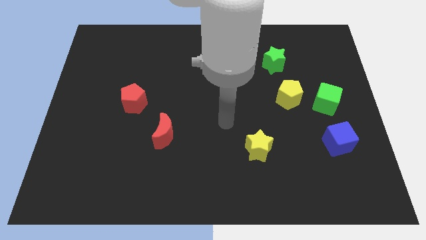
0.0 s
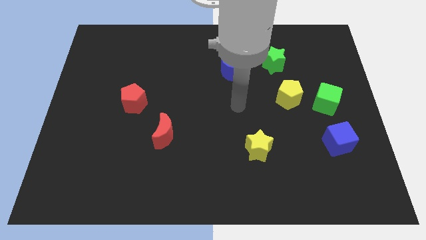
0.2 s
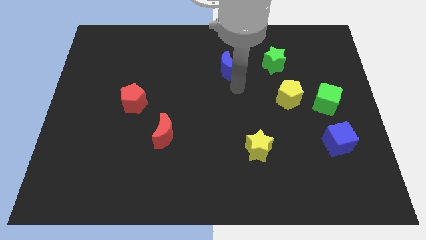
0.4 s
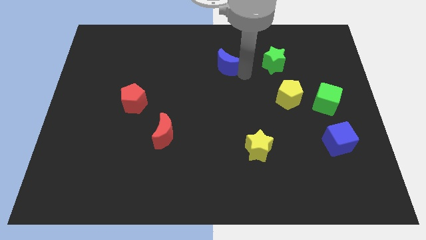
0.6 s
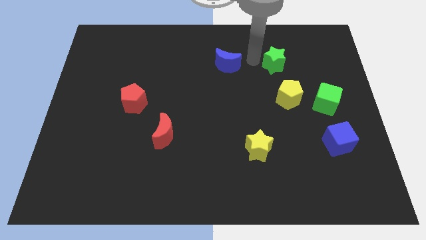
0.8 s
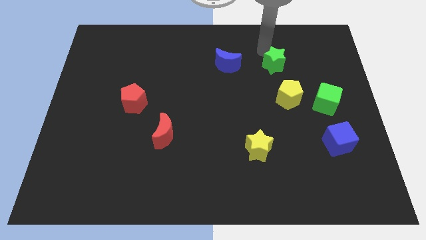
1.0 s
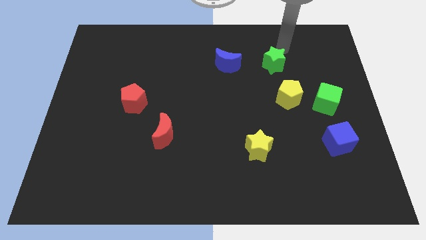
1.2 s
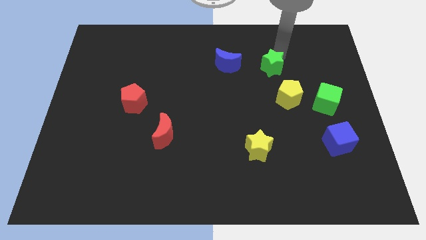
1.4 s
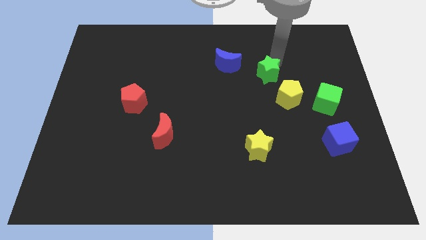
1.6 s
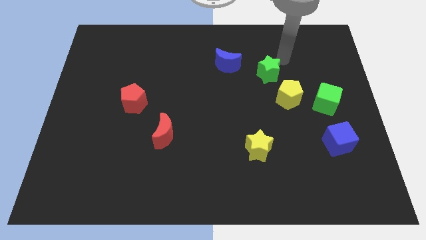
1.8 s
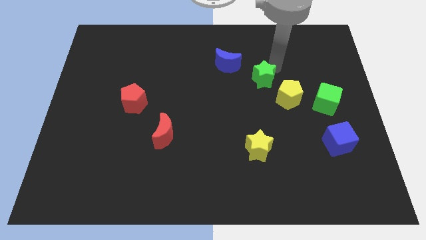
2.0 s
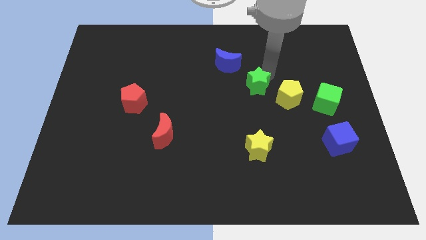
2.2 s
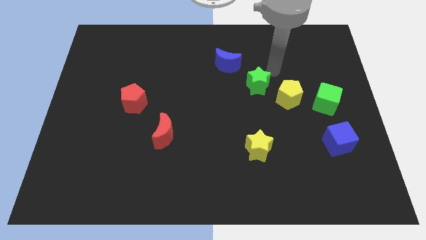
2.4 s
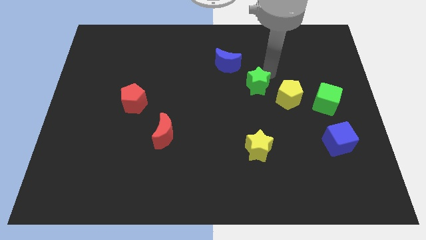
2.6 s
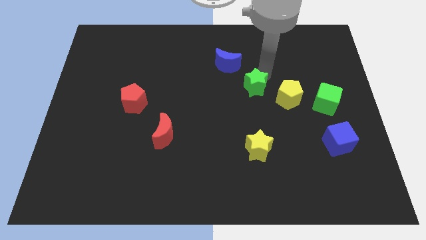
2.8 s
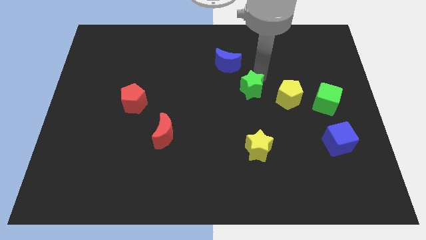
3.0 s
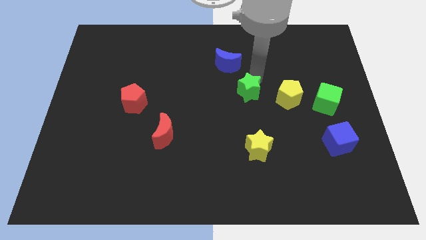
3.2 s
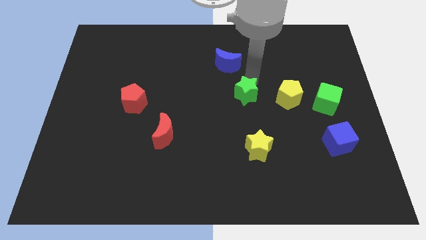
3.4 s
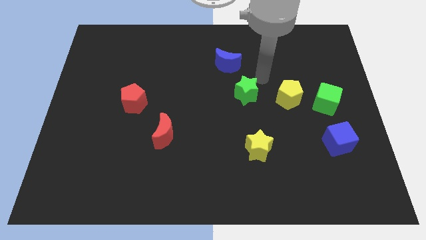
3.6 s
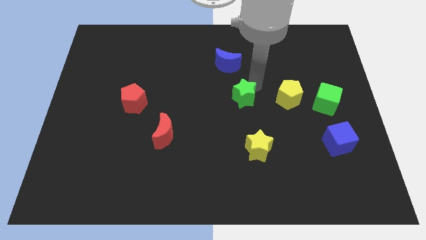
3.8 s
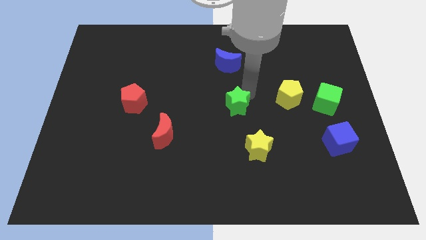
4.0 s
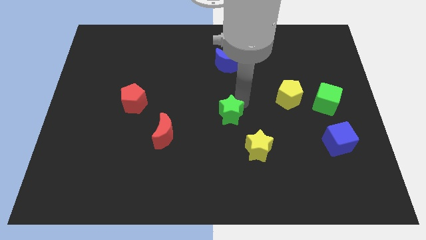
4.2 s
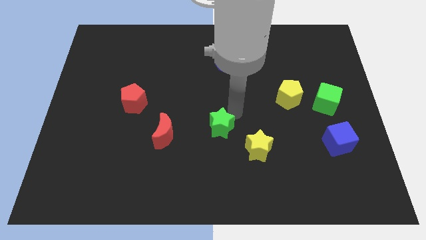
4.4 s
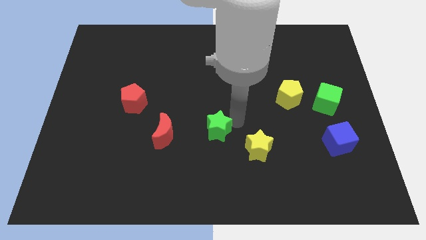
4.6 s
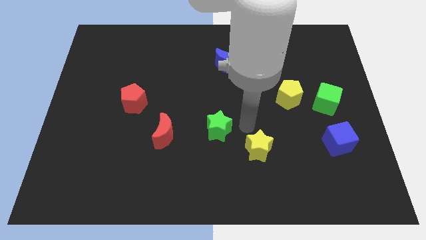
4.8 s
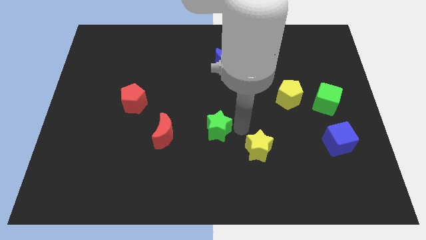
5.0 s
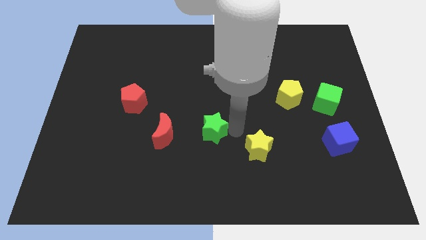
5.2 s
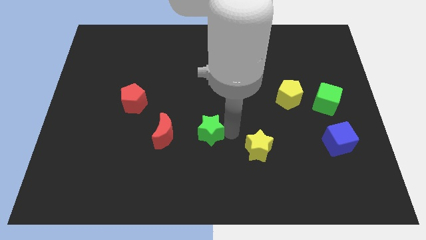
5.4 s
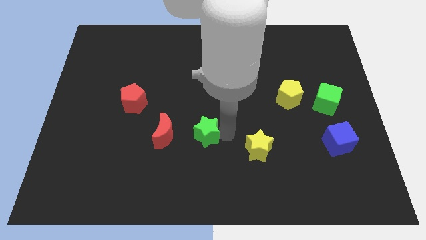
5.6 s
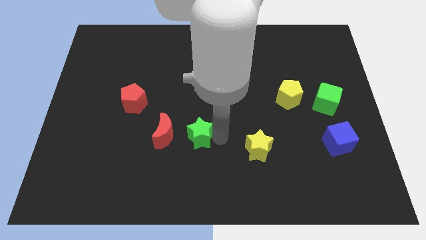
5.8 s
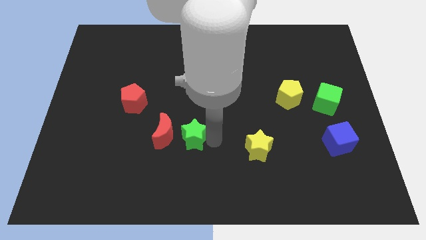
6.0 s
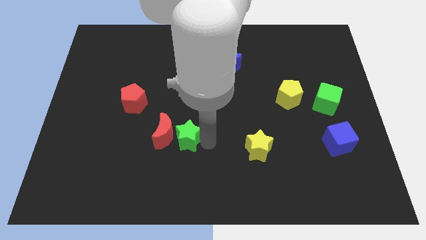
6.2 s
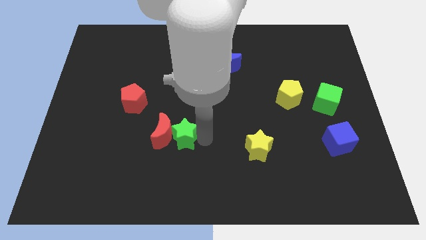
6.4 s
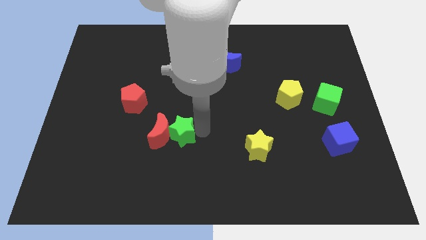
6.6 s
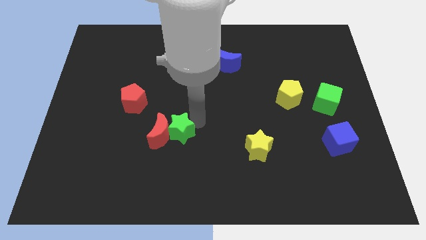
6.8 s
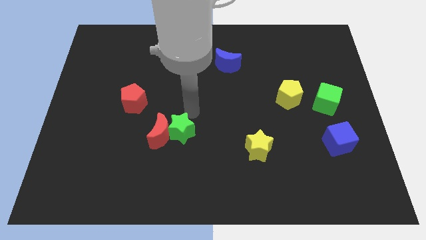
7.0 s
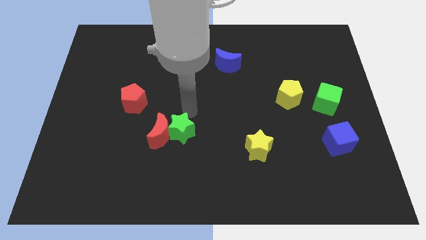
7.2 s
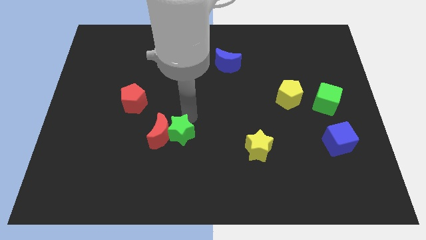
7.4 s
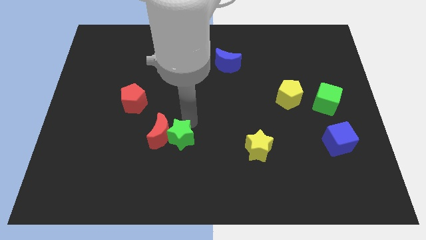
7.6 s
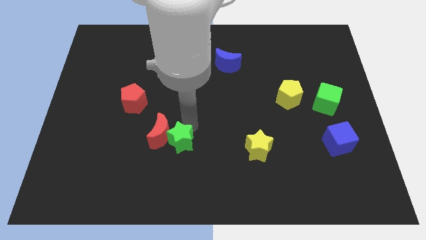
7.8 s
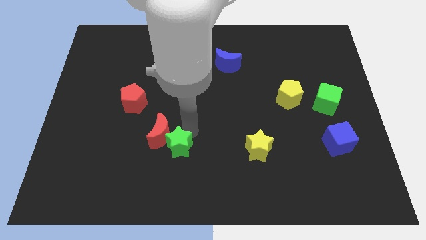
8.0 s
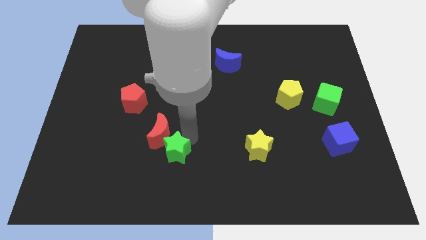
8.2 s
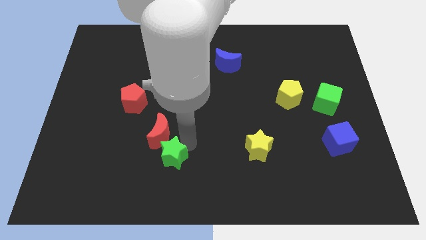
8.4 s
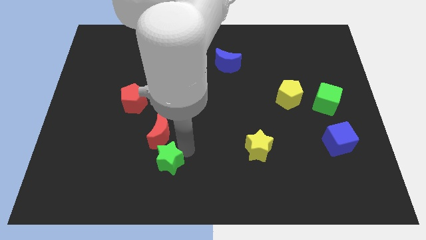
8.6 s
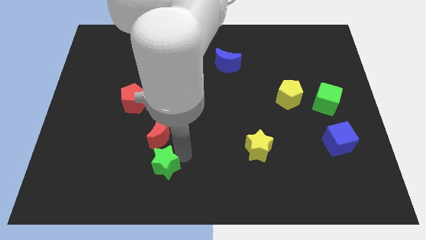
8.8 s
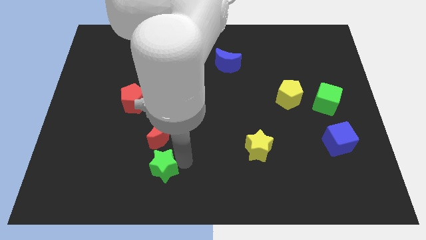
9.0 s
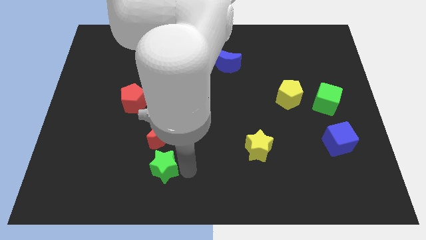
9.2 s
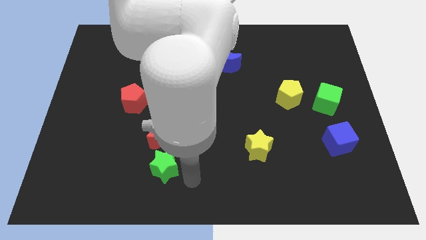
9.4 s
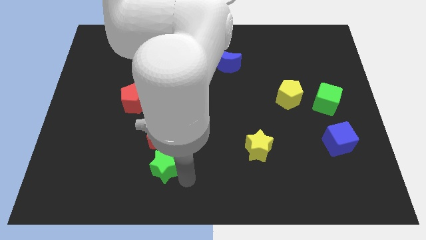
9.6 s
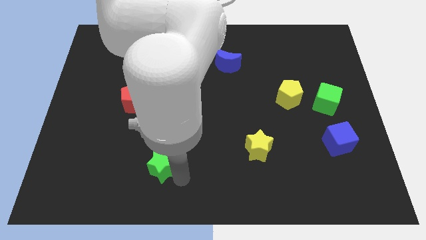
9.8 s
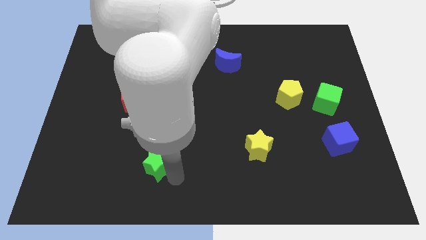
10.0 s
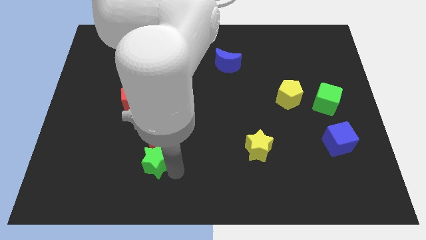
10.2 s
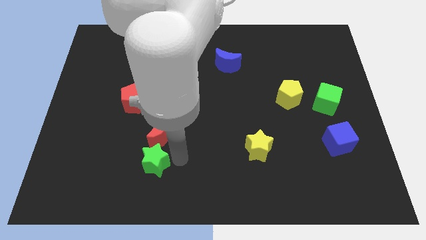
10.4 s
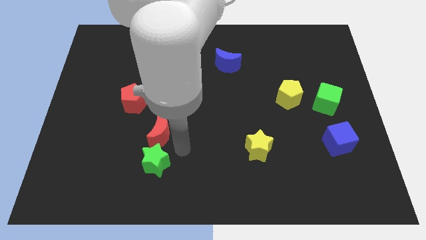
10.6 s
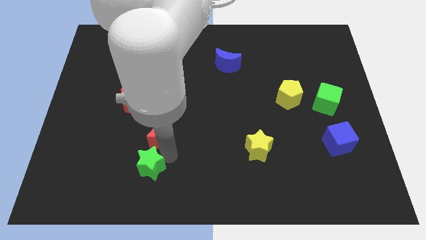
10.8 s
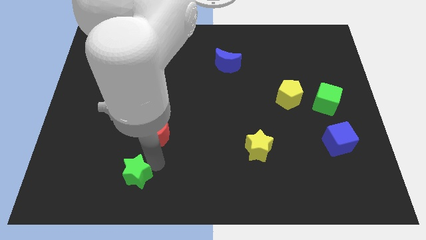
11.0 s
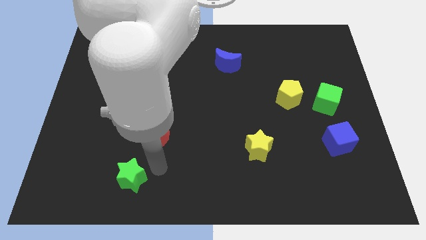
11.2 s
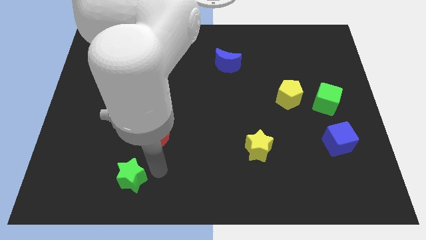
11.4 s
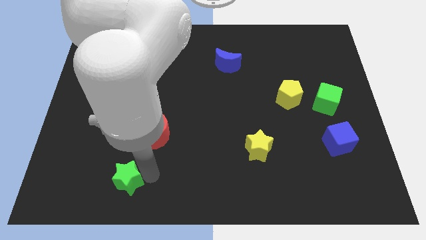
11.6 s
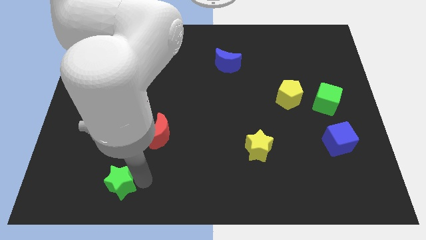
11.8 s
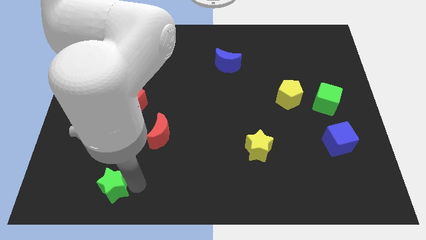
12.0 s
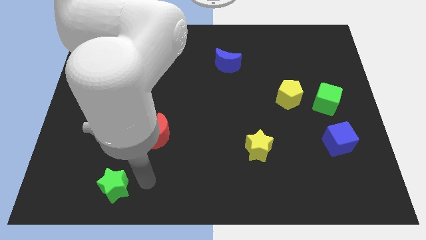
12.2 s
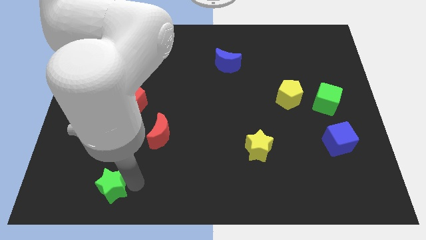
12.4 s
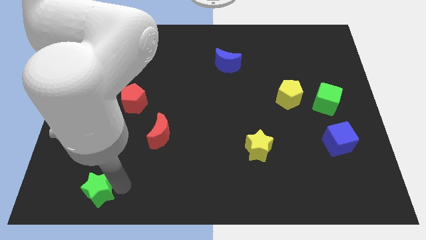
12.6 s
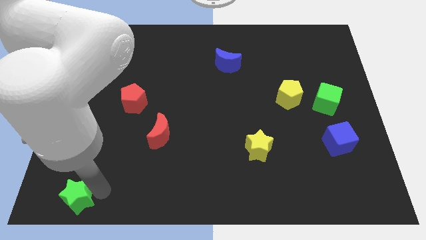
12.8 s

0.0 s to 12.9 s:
move the green star to the bottom left corner
